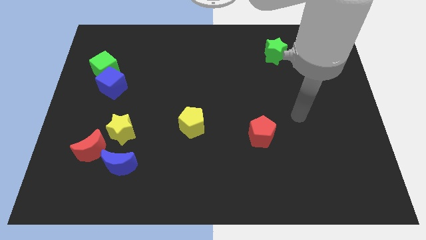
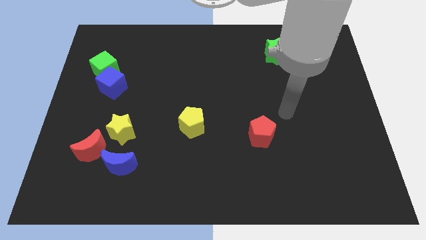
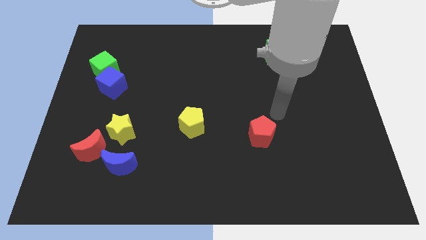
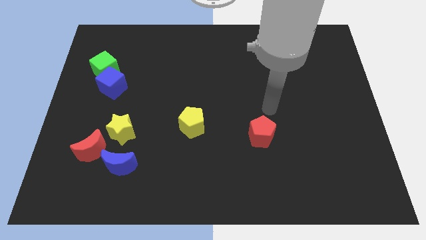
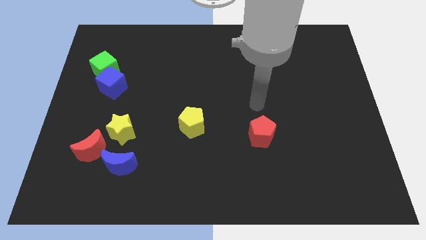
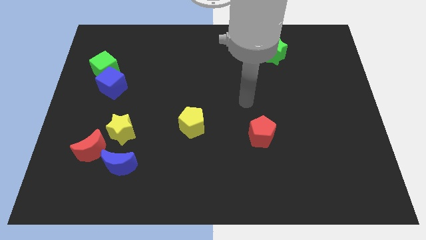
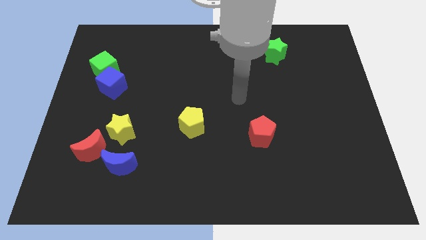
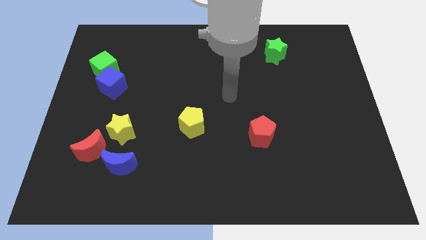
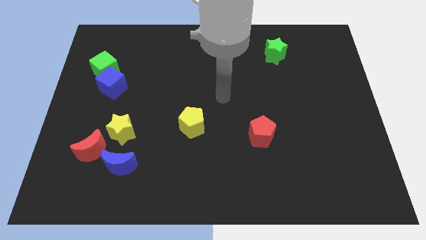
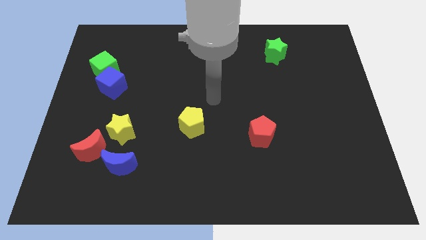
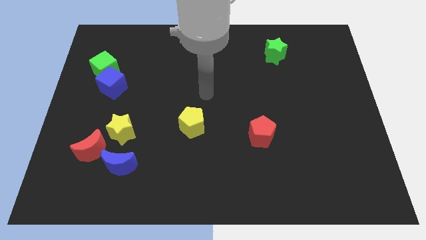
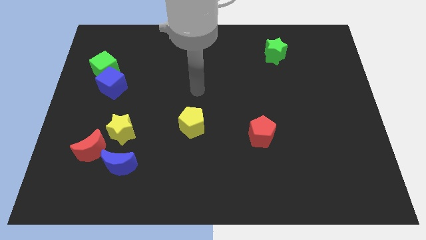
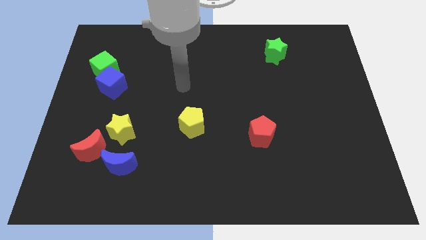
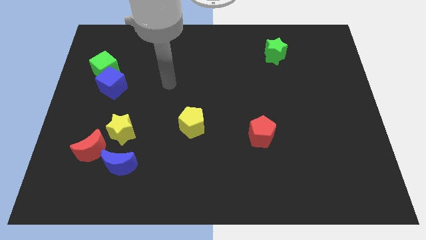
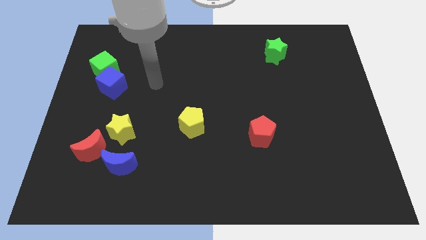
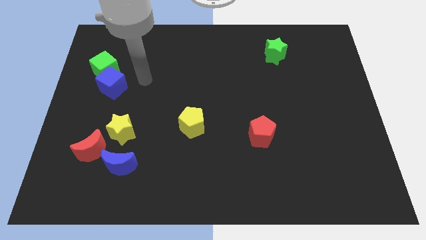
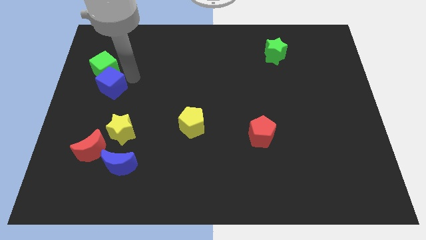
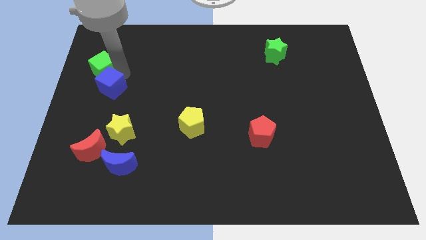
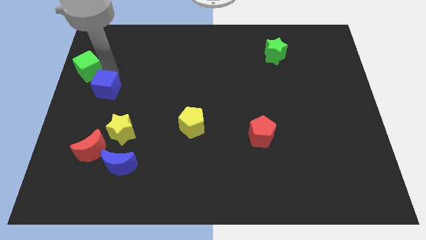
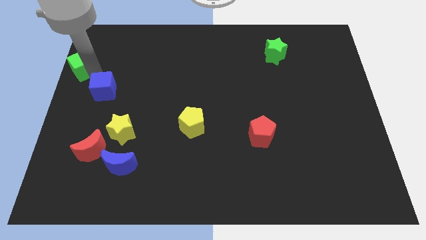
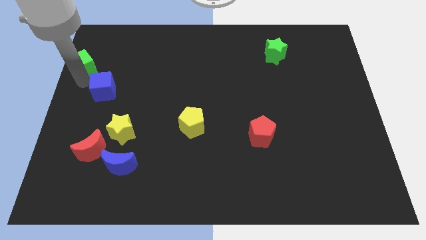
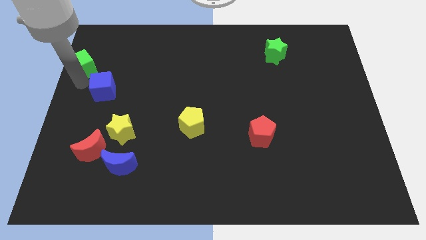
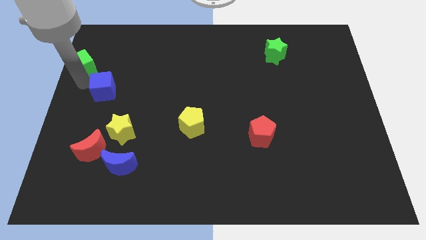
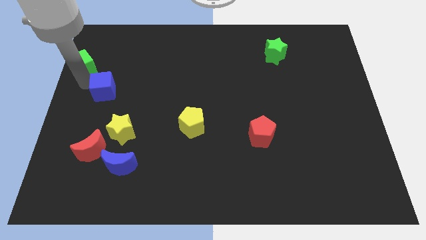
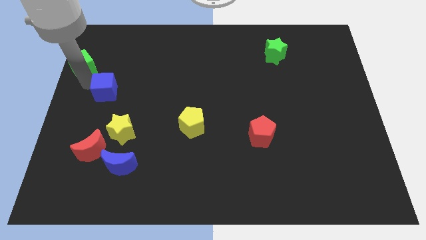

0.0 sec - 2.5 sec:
pull the blue cube apart from the green cube

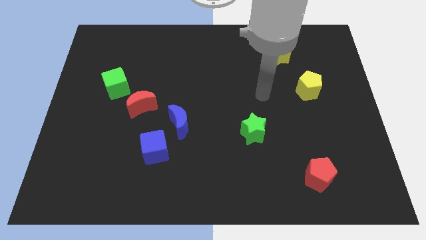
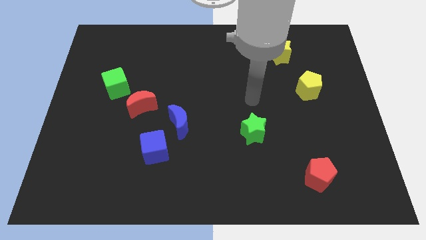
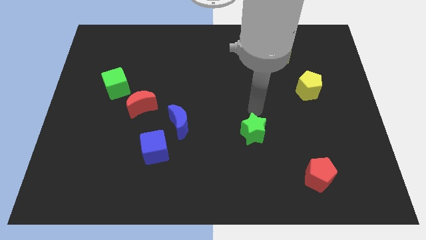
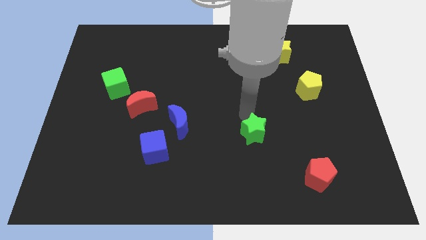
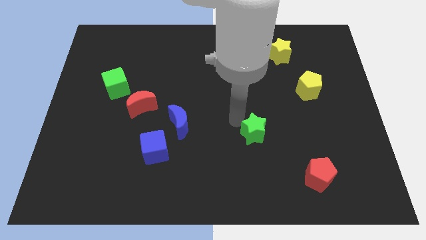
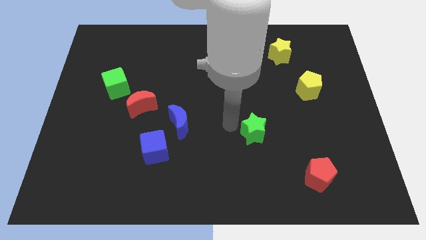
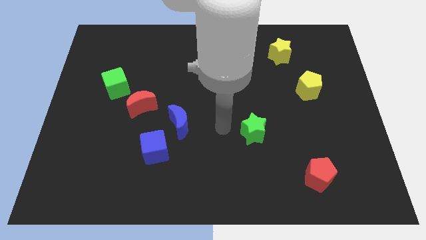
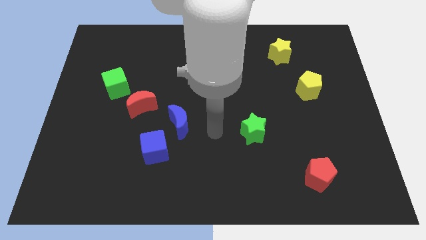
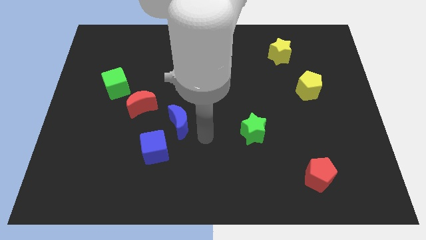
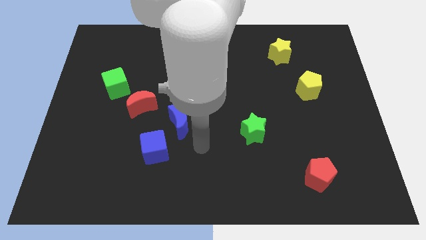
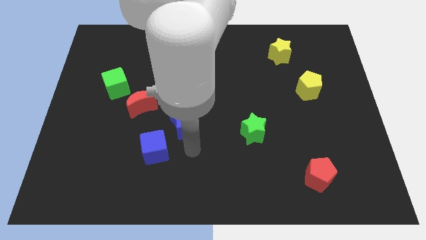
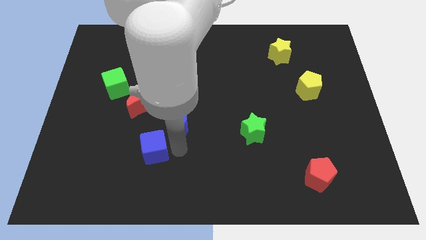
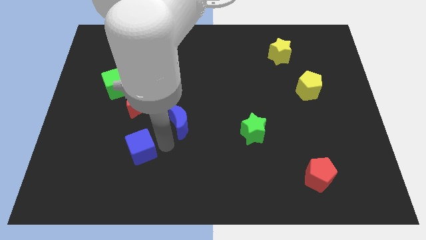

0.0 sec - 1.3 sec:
move the blue moon away from the blue cube

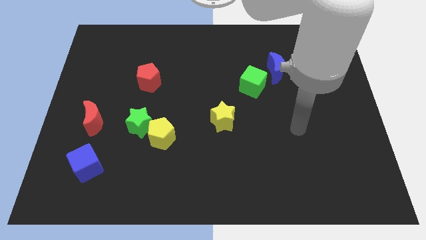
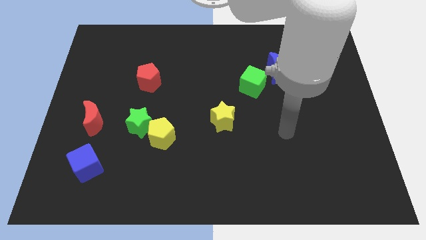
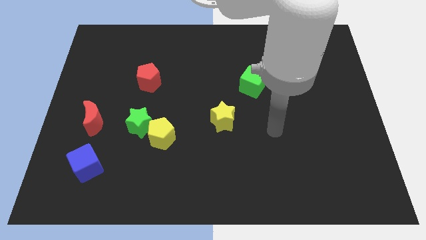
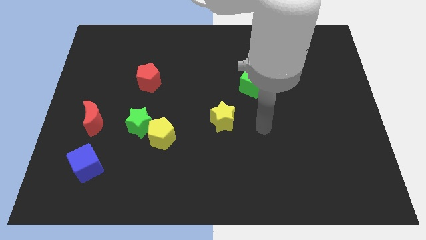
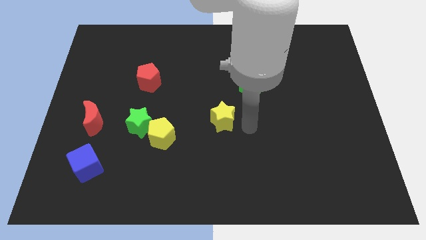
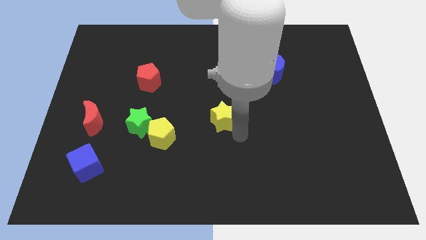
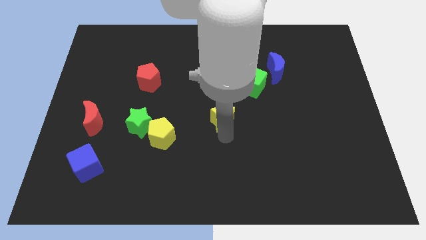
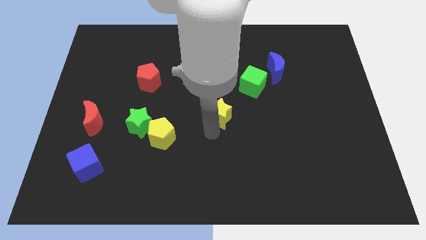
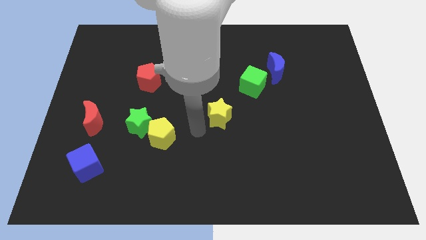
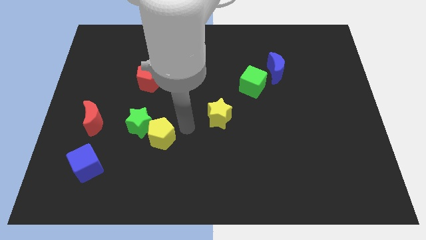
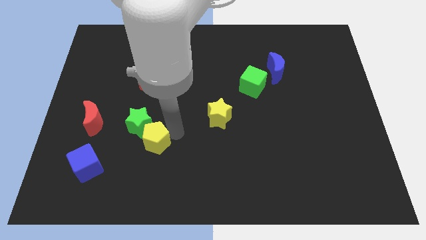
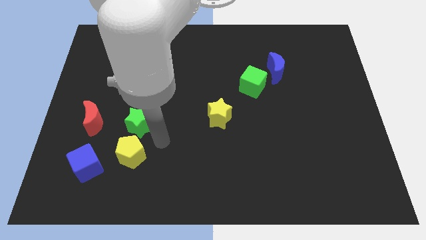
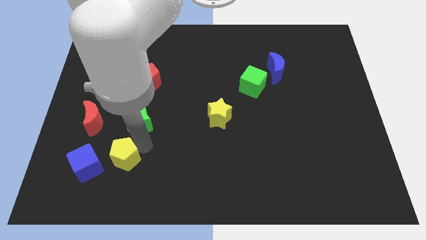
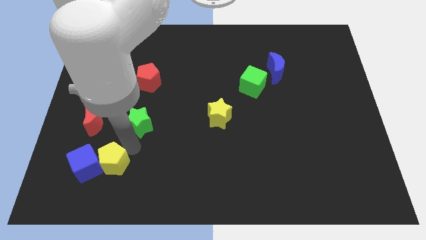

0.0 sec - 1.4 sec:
pull the green star apart from the yellow pentagon

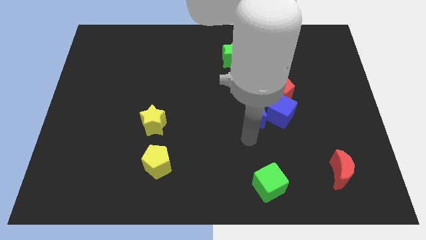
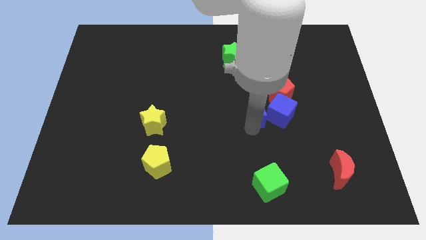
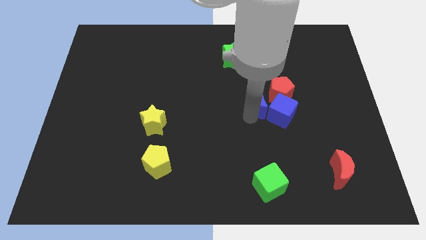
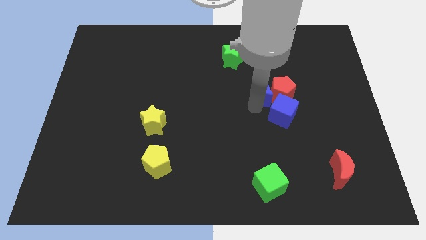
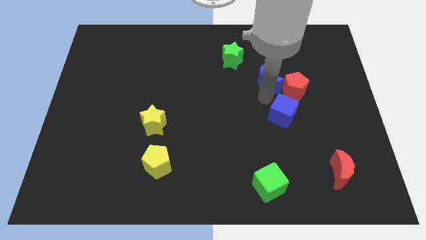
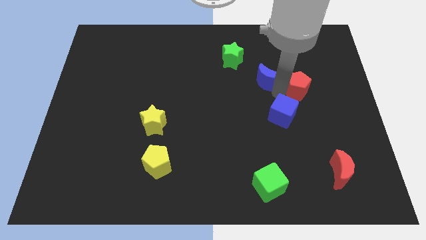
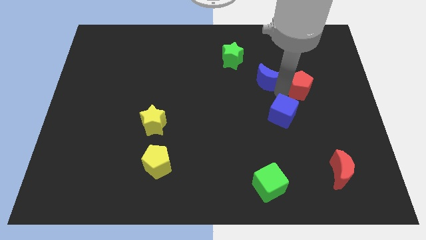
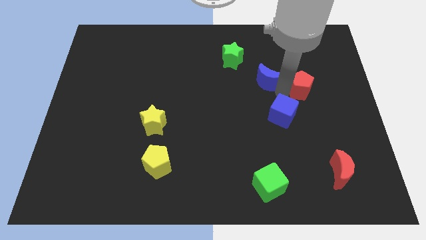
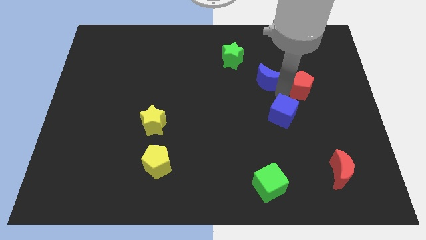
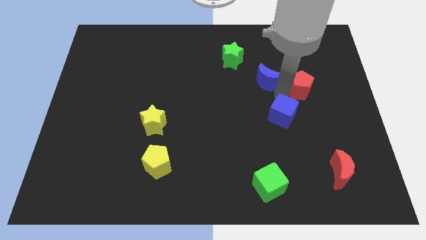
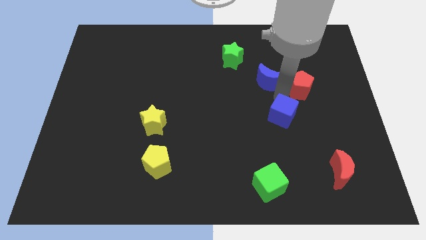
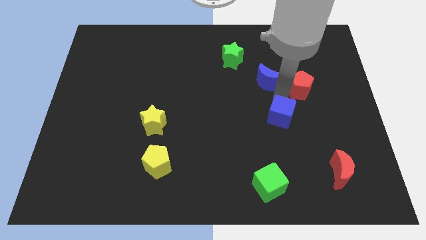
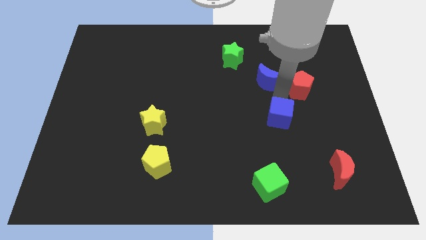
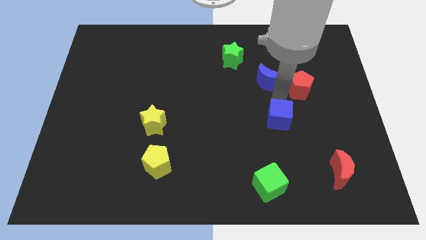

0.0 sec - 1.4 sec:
separate the blue cube from the blue moon and red pentagon

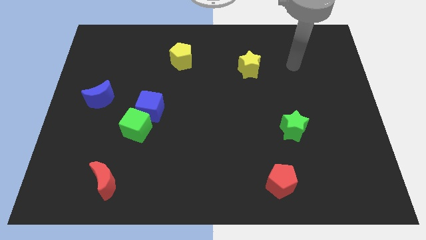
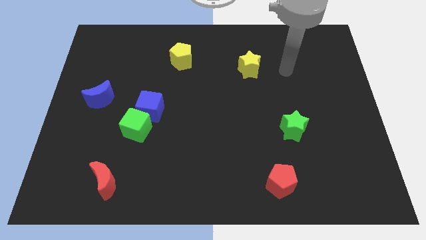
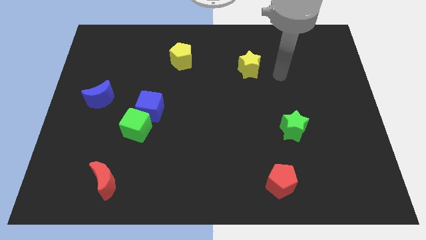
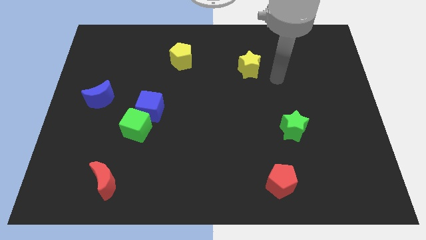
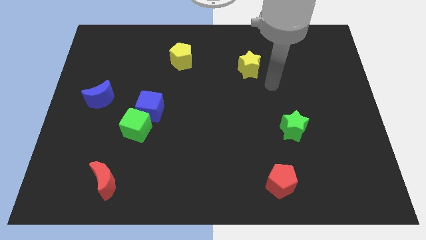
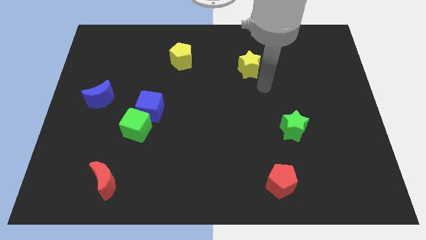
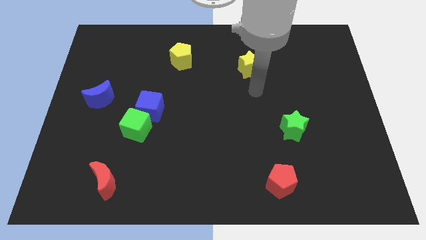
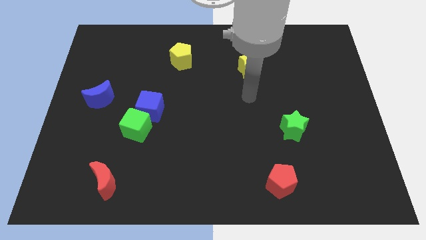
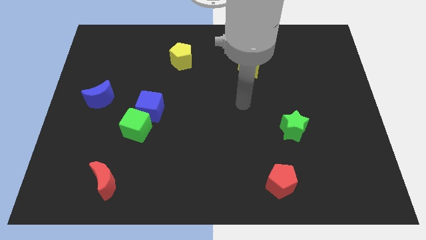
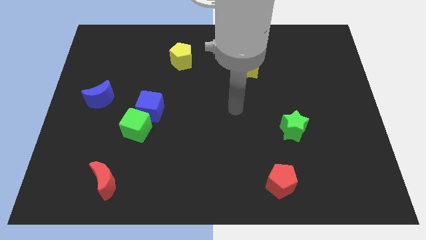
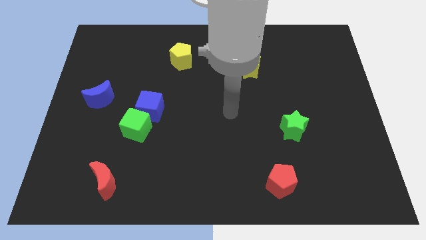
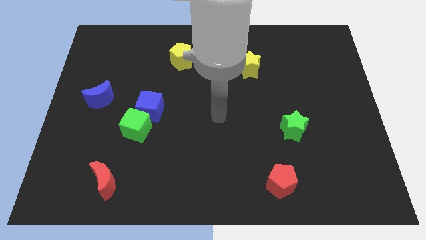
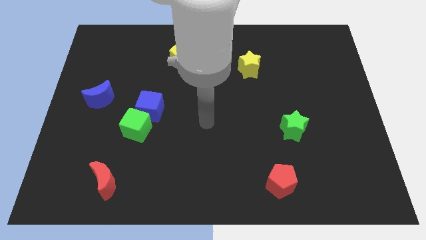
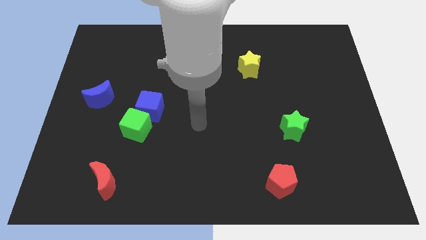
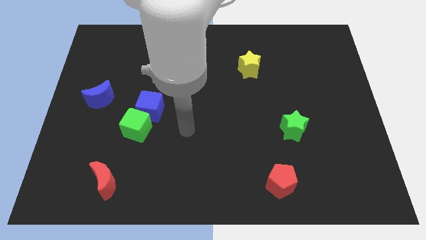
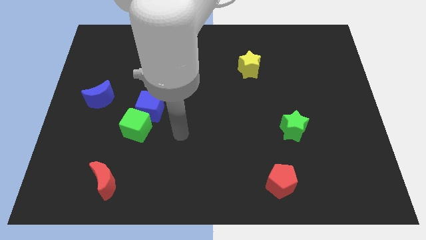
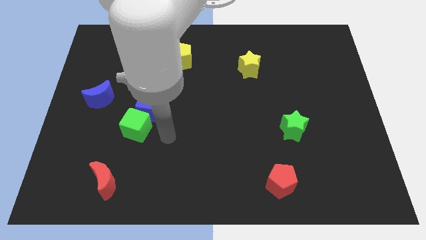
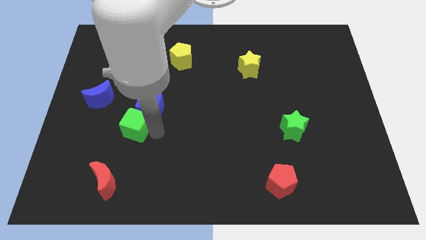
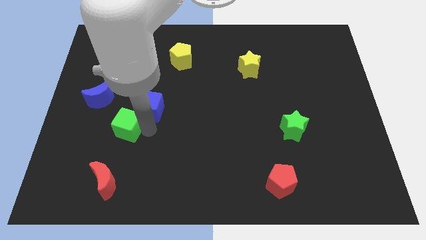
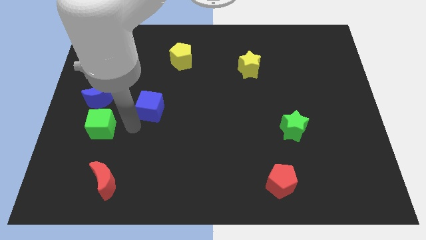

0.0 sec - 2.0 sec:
separate the blue cube from the green cube

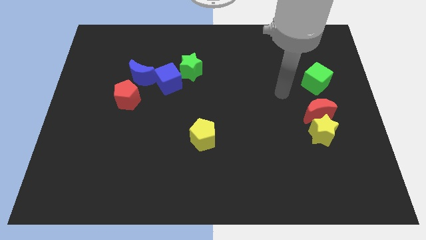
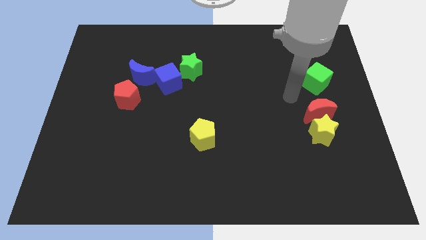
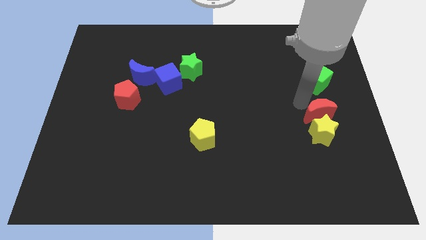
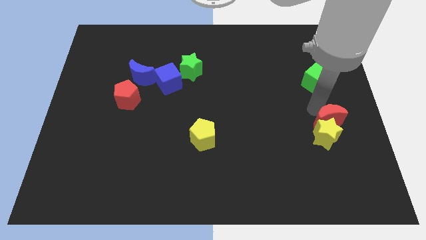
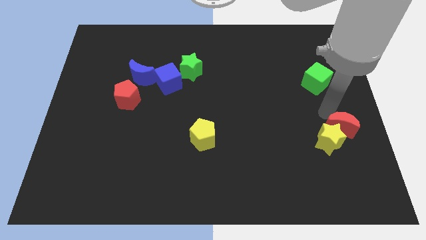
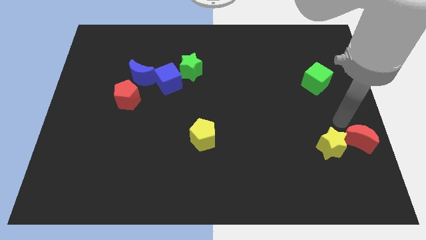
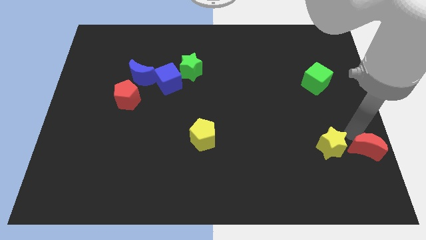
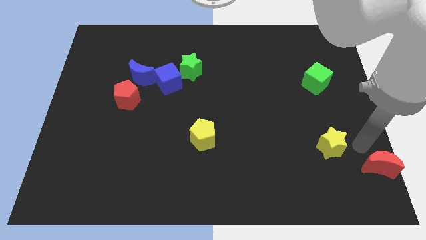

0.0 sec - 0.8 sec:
move the yellow star away from the red moon

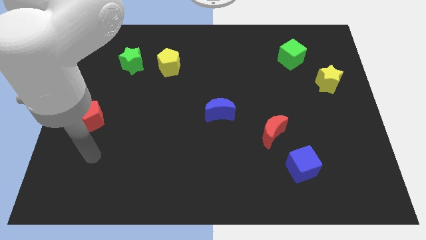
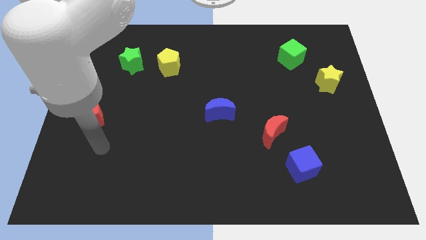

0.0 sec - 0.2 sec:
move the green star away from the yellow pentagon
